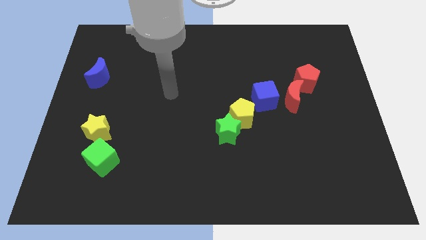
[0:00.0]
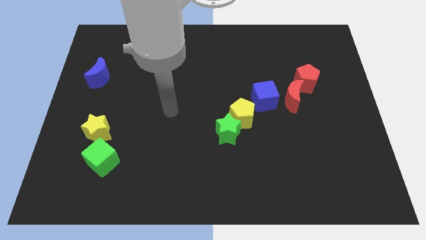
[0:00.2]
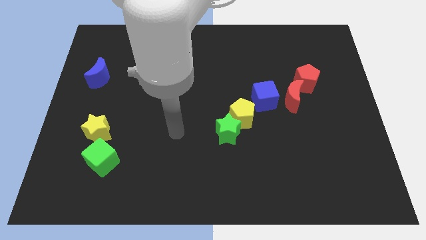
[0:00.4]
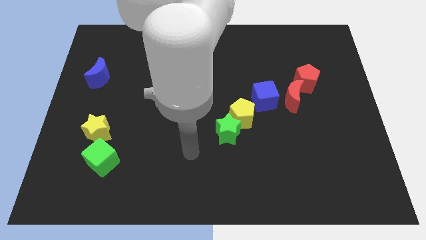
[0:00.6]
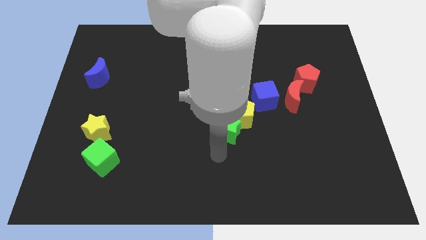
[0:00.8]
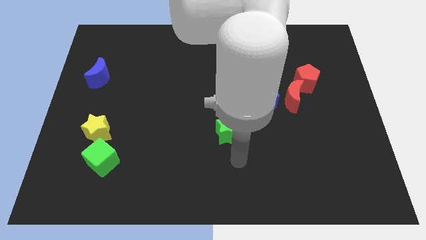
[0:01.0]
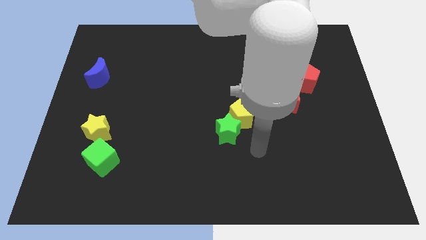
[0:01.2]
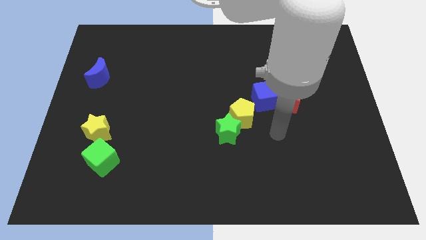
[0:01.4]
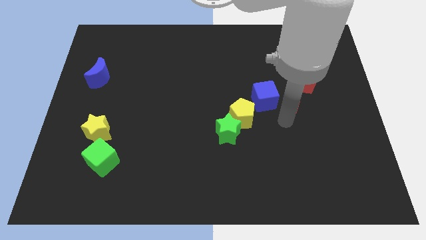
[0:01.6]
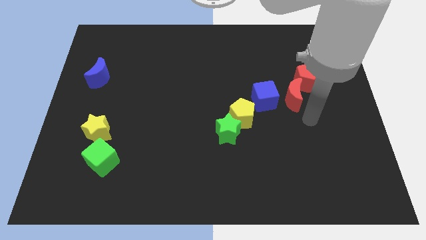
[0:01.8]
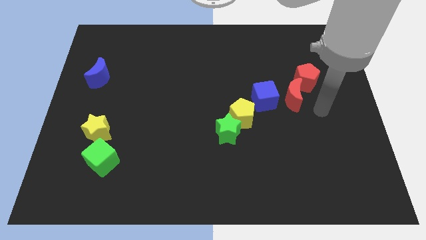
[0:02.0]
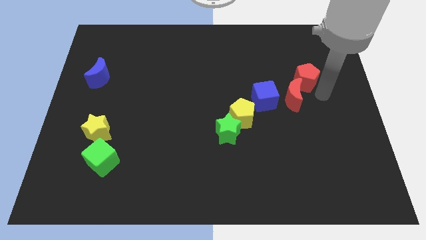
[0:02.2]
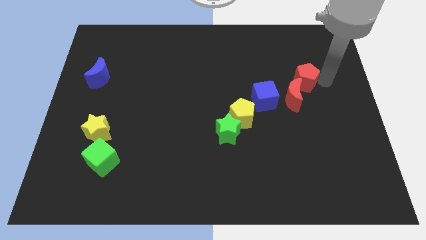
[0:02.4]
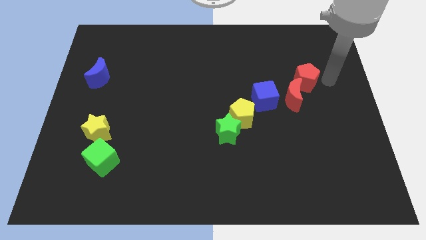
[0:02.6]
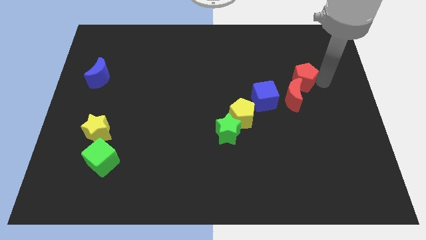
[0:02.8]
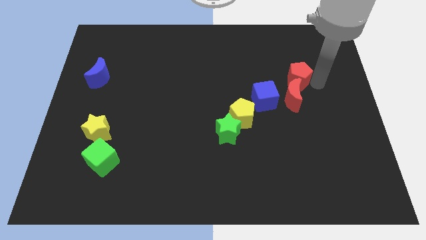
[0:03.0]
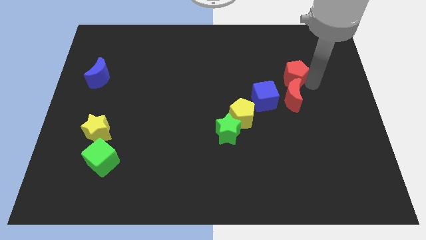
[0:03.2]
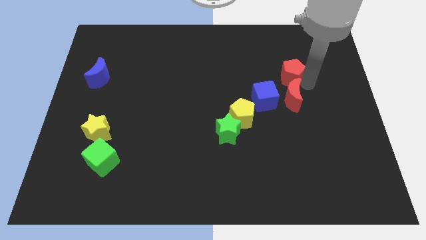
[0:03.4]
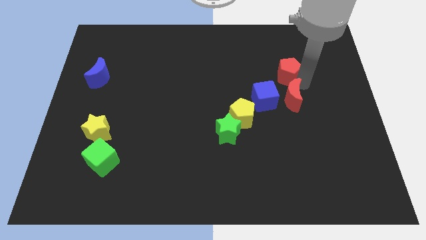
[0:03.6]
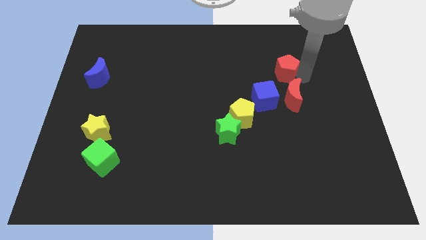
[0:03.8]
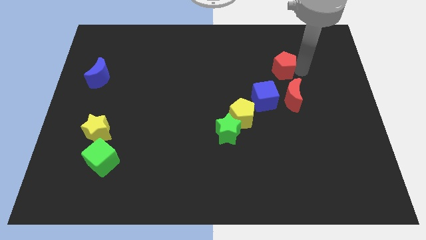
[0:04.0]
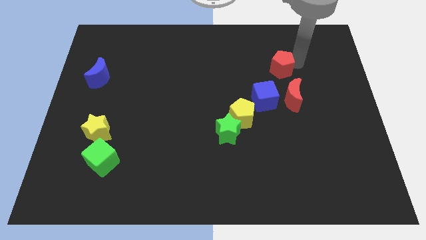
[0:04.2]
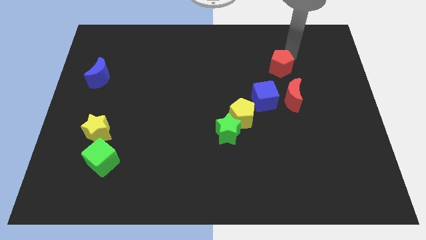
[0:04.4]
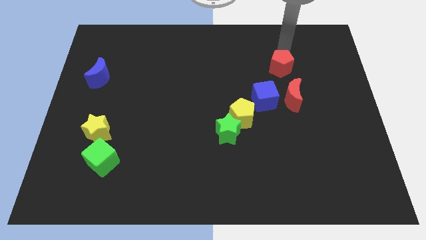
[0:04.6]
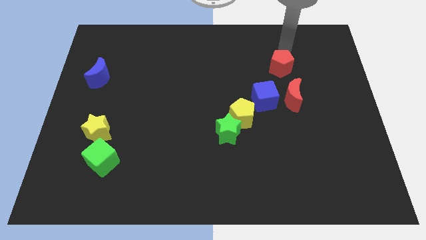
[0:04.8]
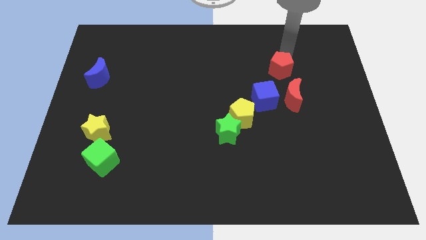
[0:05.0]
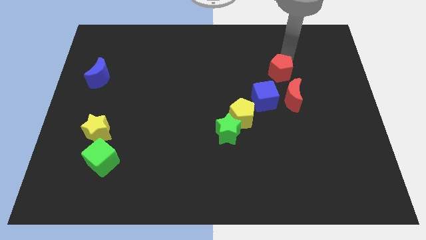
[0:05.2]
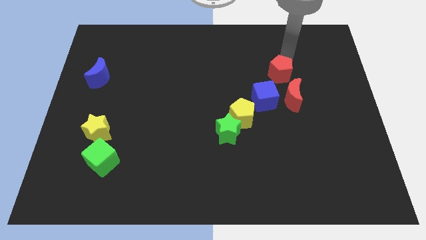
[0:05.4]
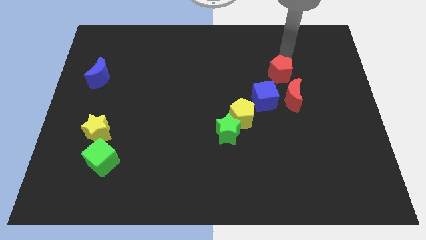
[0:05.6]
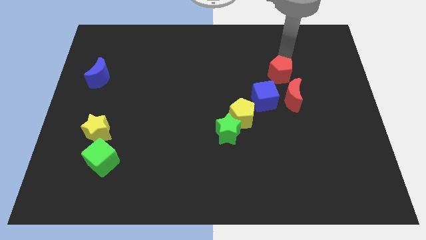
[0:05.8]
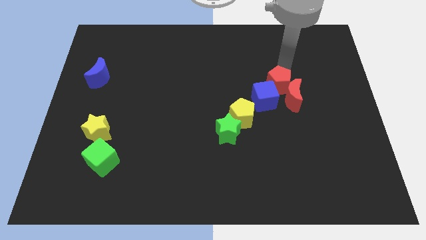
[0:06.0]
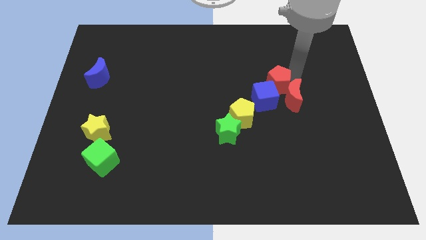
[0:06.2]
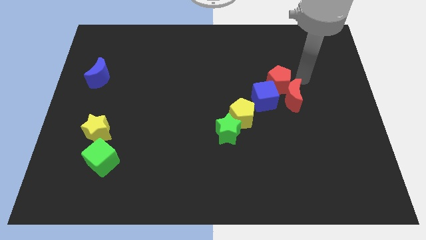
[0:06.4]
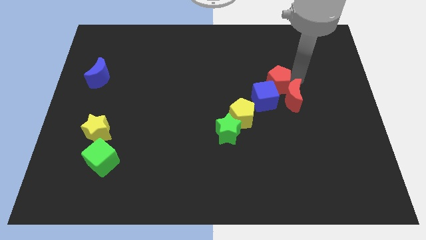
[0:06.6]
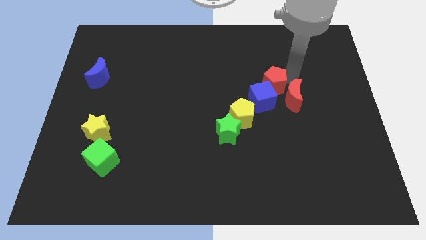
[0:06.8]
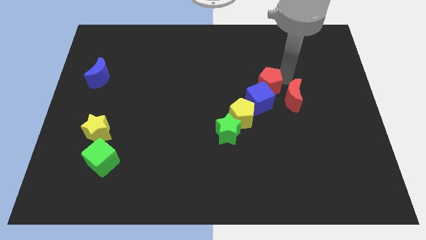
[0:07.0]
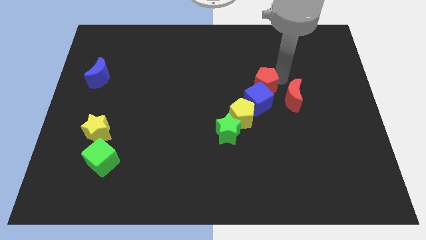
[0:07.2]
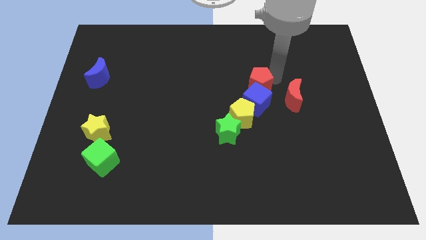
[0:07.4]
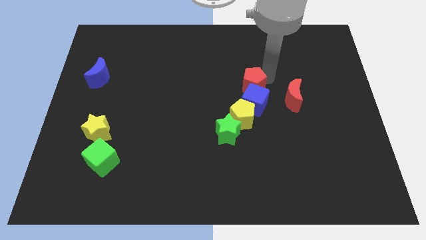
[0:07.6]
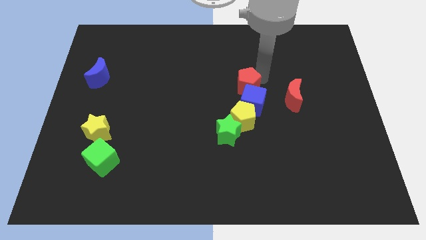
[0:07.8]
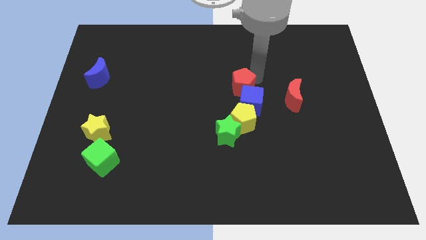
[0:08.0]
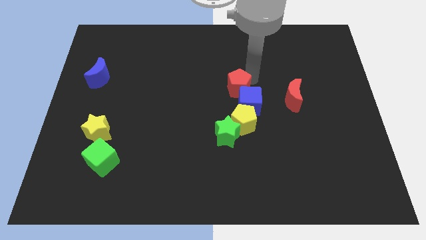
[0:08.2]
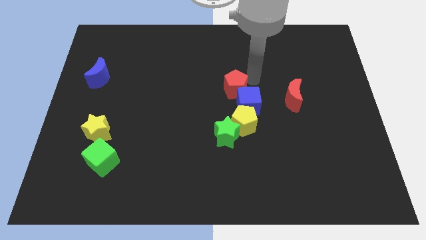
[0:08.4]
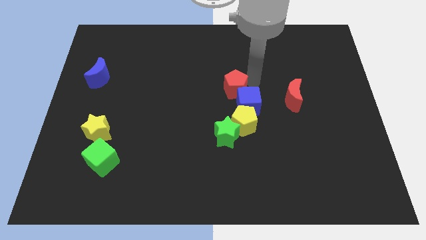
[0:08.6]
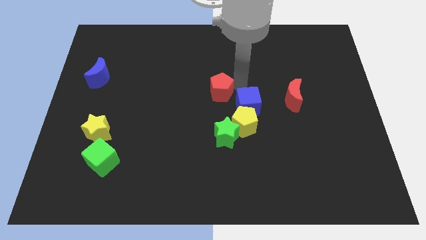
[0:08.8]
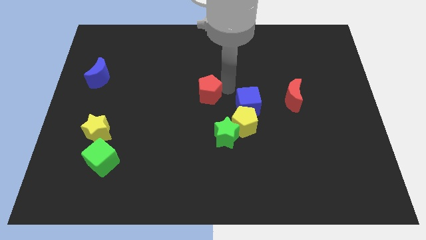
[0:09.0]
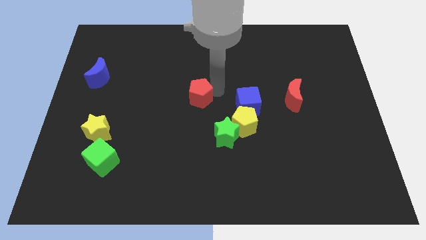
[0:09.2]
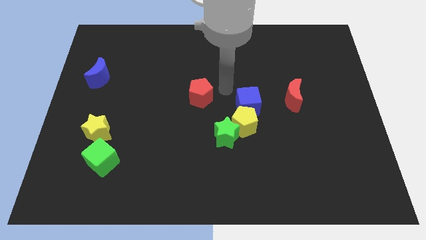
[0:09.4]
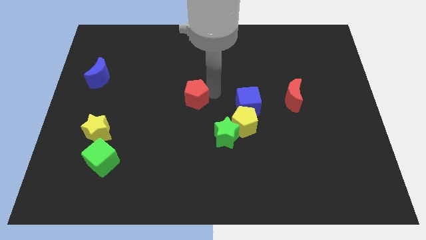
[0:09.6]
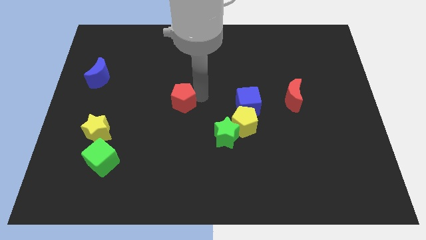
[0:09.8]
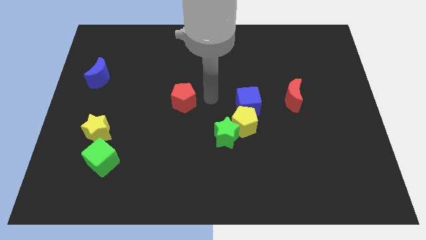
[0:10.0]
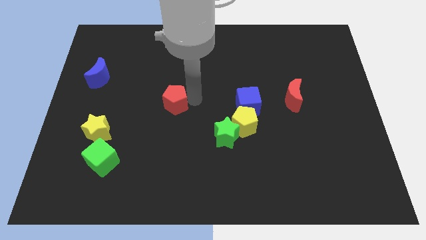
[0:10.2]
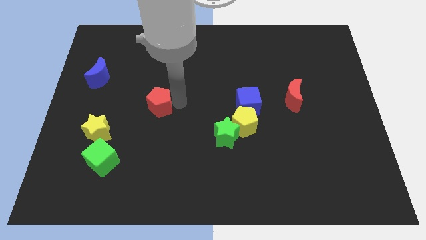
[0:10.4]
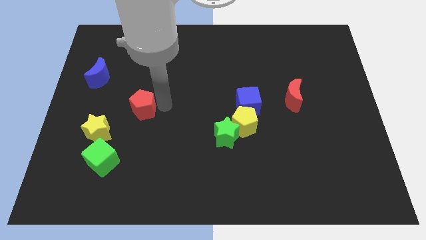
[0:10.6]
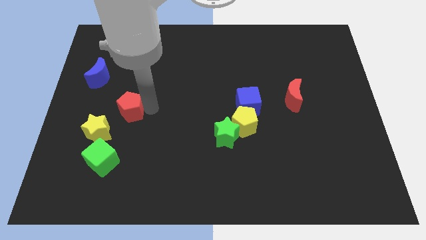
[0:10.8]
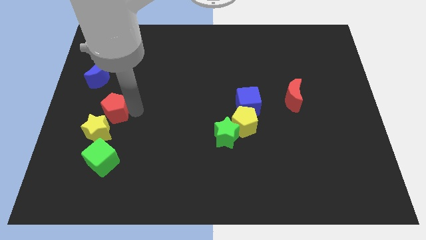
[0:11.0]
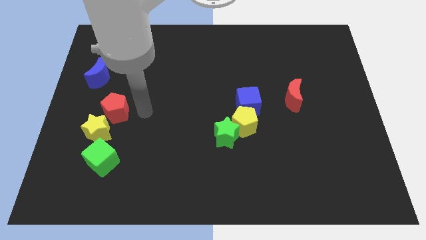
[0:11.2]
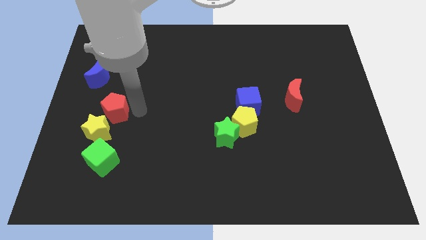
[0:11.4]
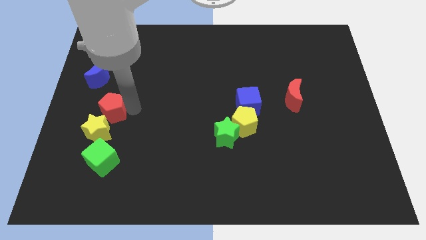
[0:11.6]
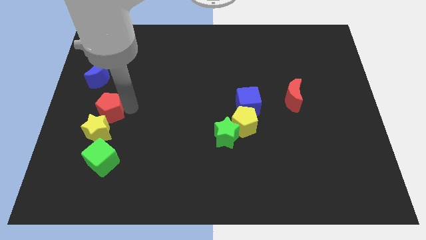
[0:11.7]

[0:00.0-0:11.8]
put the red pentagon to the bottom of the blue moon

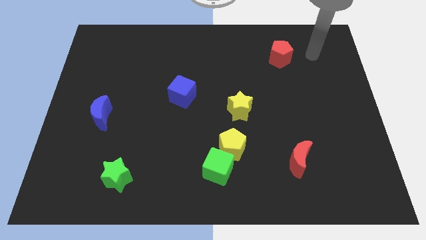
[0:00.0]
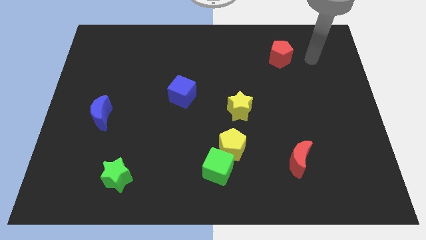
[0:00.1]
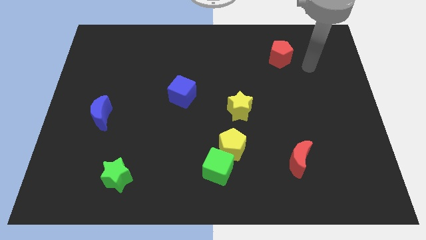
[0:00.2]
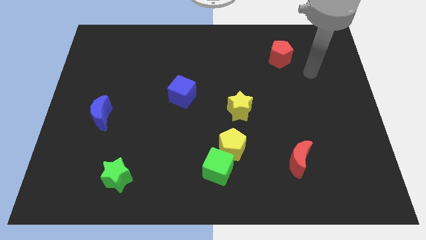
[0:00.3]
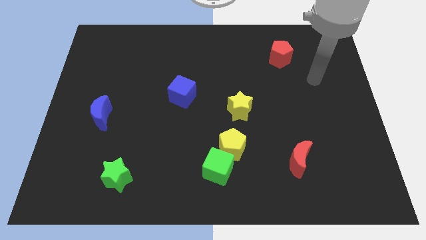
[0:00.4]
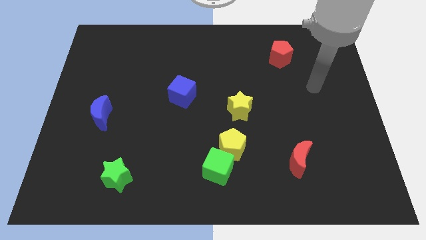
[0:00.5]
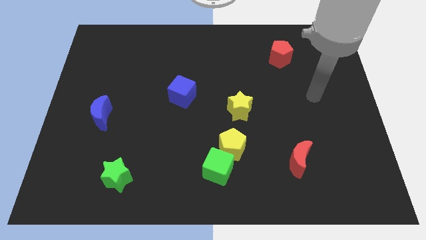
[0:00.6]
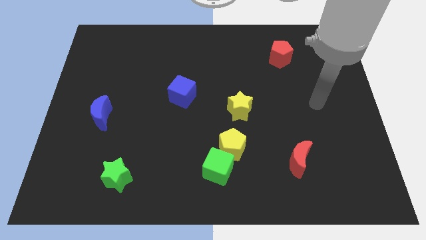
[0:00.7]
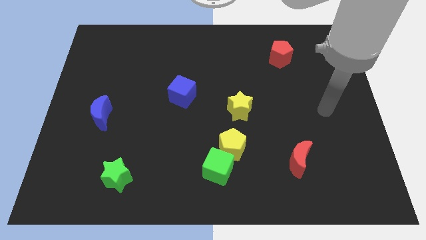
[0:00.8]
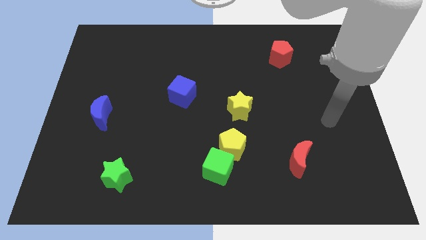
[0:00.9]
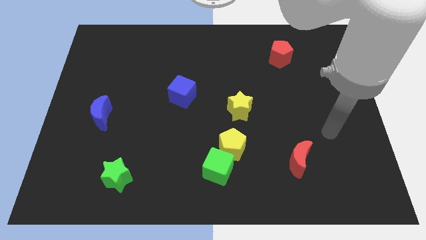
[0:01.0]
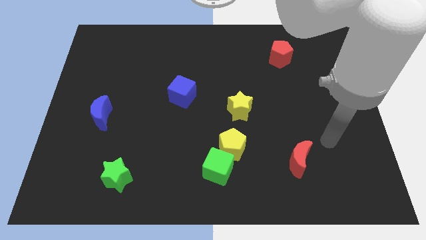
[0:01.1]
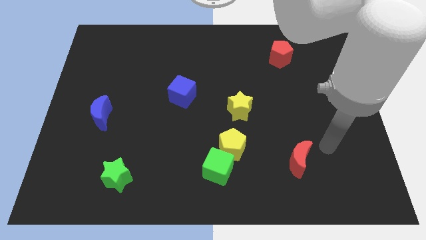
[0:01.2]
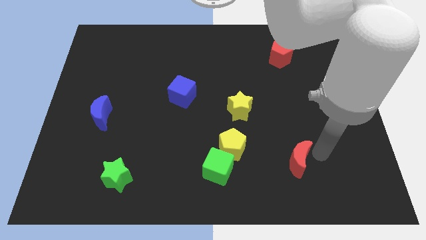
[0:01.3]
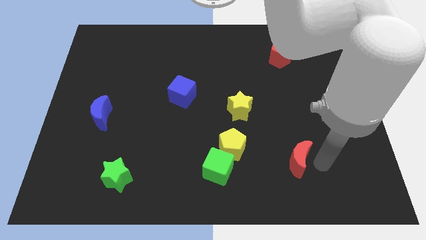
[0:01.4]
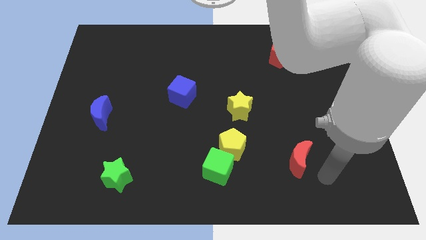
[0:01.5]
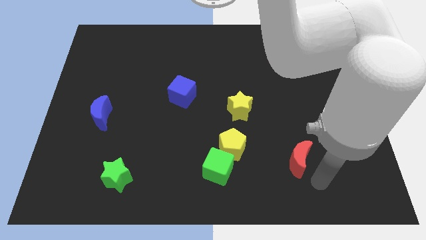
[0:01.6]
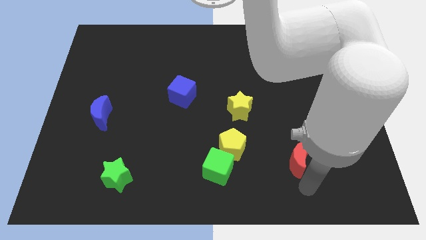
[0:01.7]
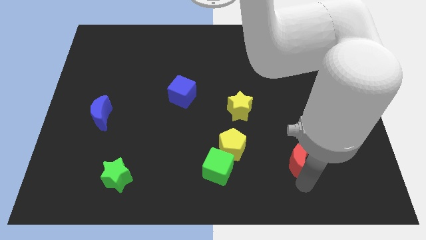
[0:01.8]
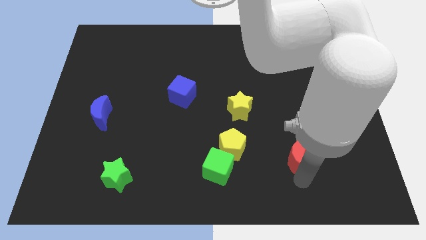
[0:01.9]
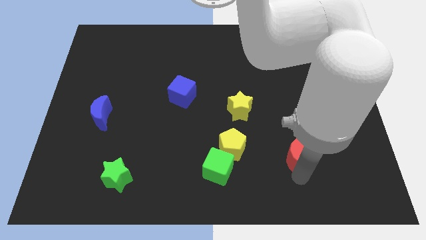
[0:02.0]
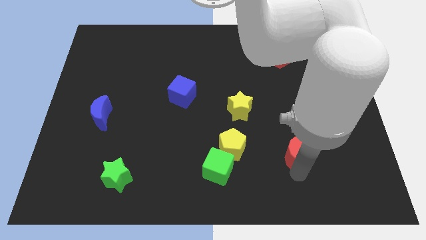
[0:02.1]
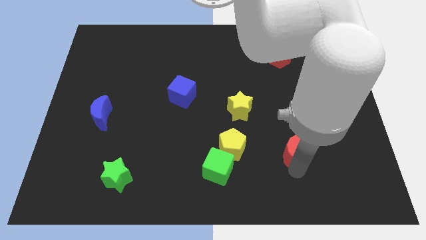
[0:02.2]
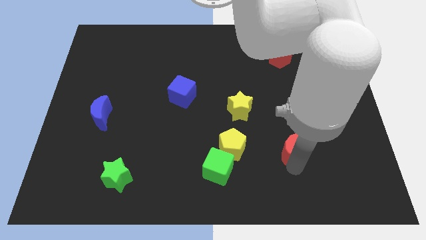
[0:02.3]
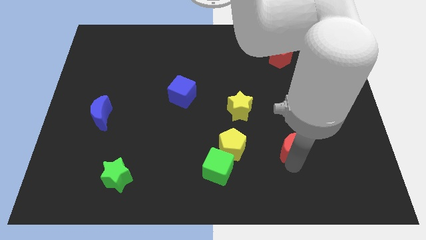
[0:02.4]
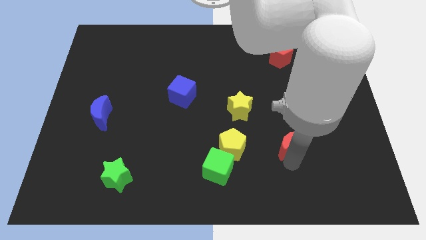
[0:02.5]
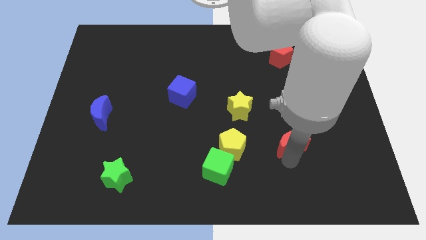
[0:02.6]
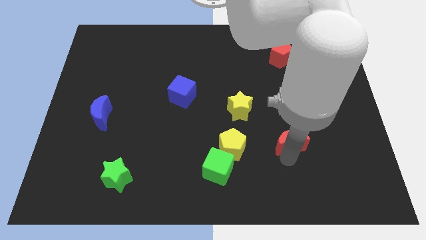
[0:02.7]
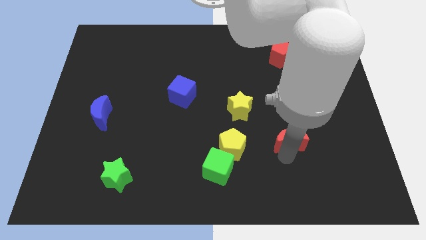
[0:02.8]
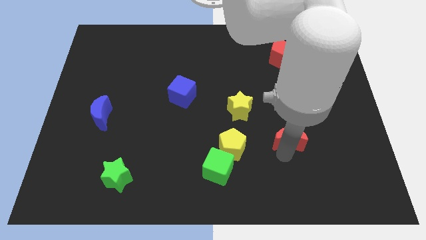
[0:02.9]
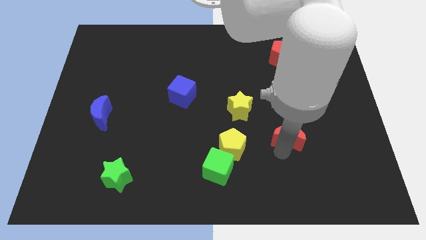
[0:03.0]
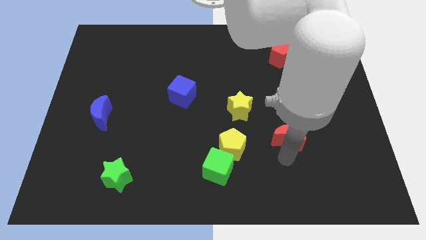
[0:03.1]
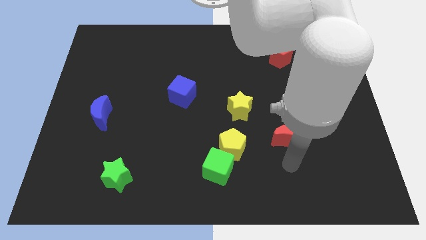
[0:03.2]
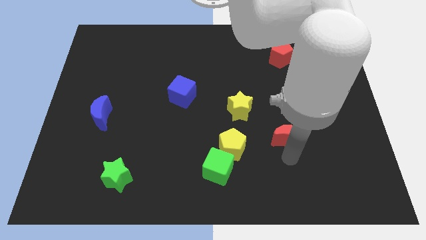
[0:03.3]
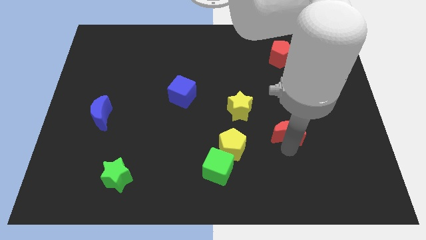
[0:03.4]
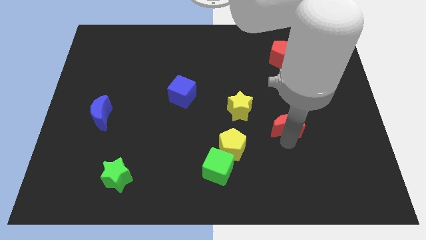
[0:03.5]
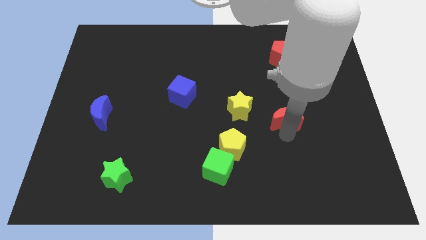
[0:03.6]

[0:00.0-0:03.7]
put the red moon just right of the yellow star
